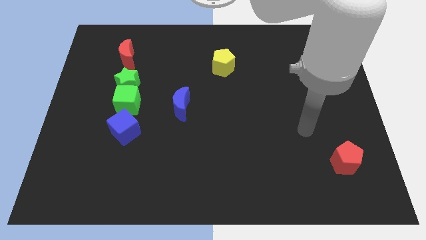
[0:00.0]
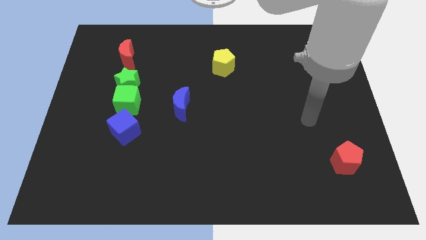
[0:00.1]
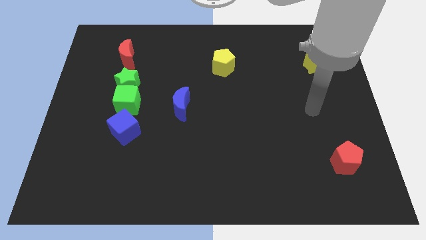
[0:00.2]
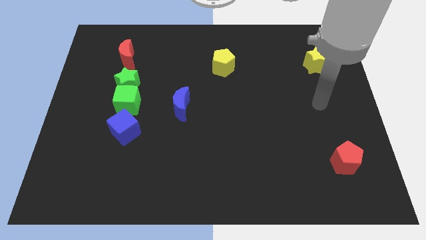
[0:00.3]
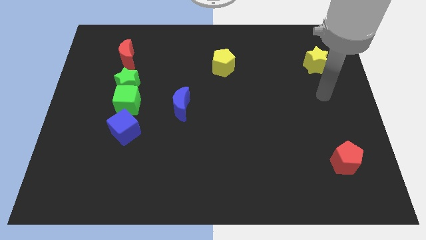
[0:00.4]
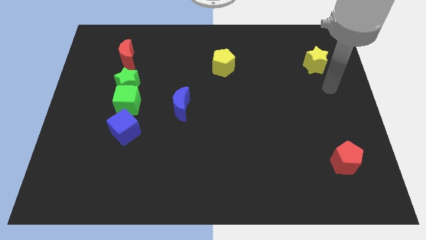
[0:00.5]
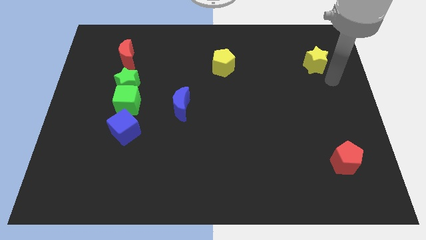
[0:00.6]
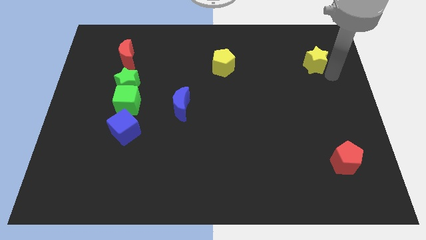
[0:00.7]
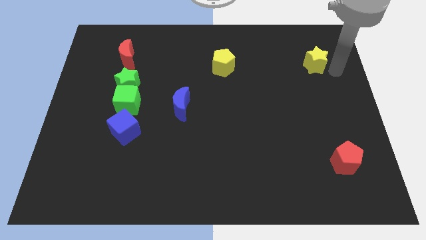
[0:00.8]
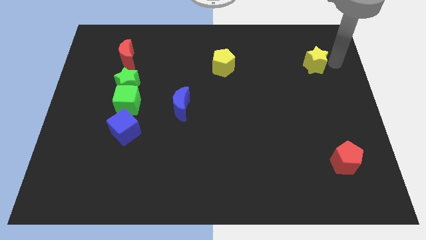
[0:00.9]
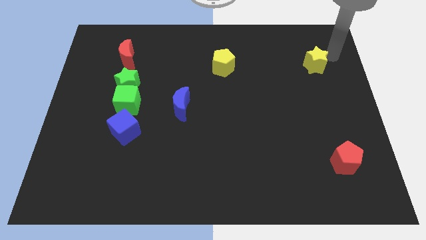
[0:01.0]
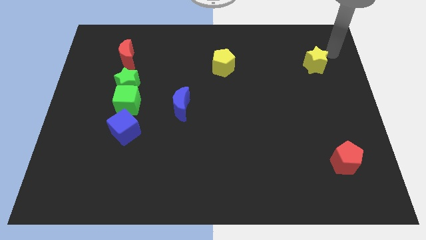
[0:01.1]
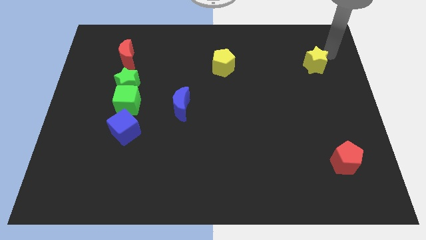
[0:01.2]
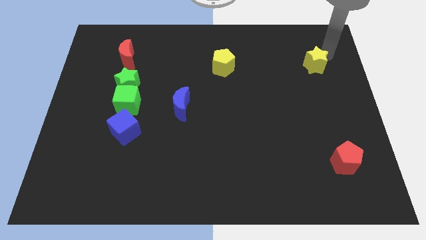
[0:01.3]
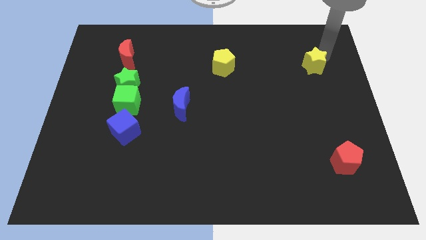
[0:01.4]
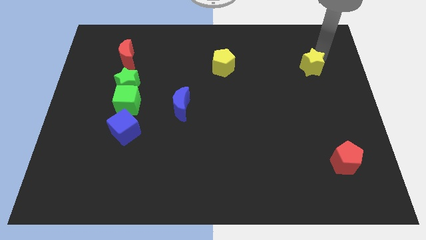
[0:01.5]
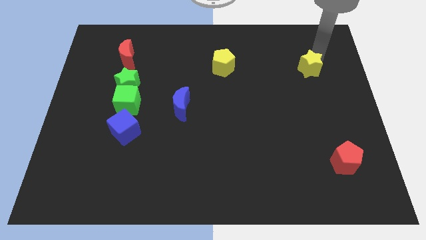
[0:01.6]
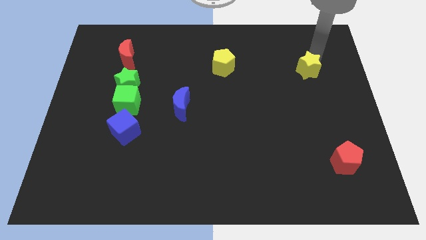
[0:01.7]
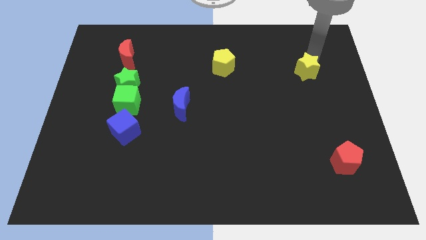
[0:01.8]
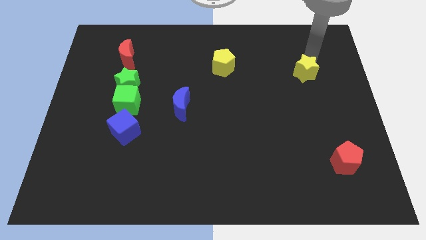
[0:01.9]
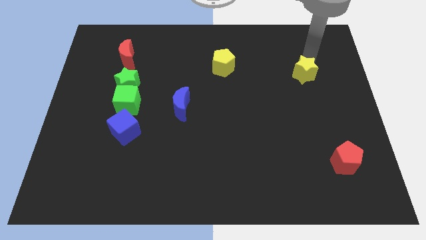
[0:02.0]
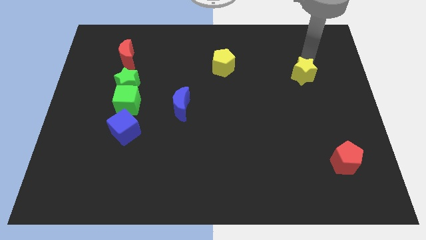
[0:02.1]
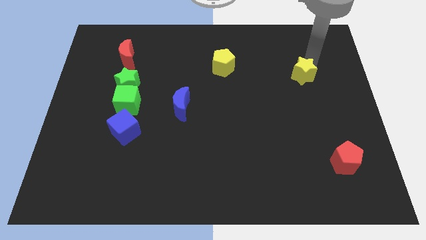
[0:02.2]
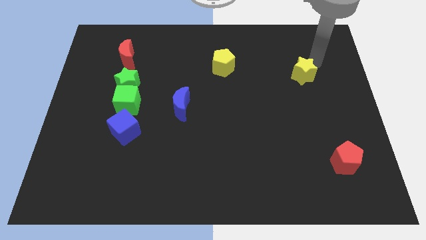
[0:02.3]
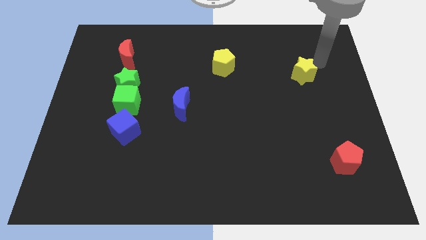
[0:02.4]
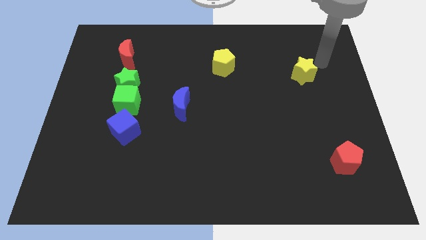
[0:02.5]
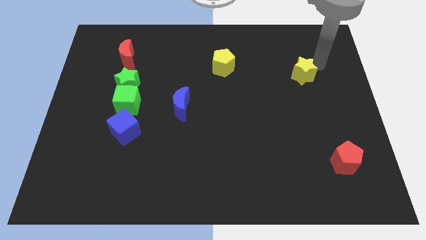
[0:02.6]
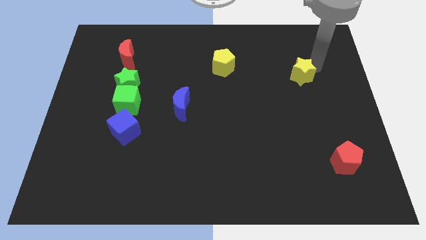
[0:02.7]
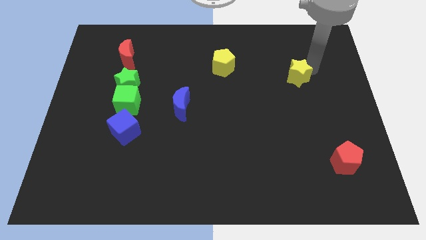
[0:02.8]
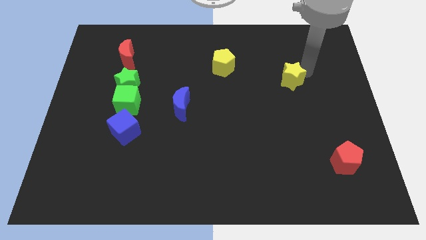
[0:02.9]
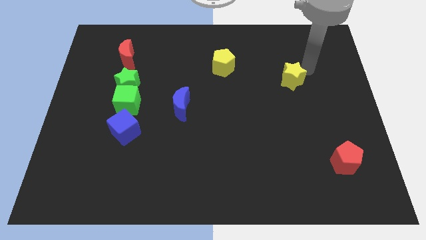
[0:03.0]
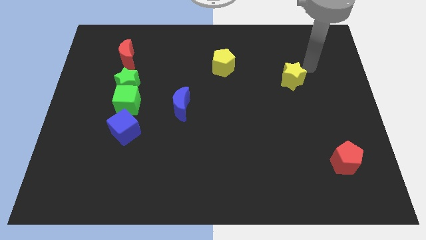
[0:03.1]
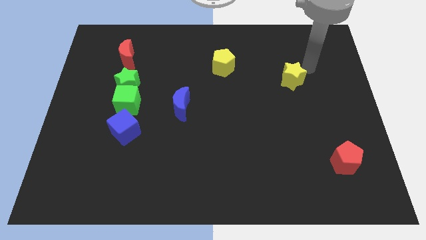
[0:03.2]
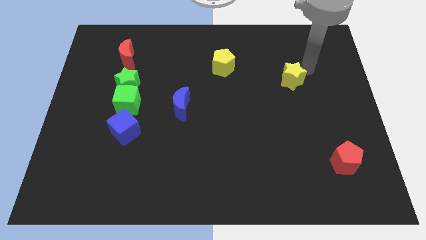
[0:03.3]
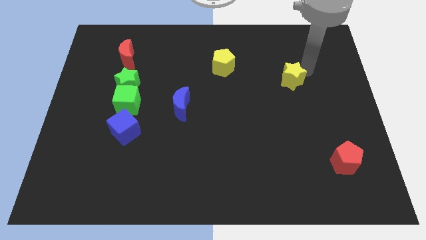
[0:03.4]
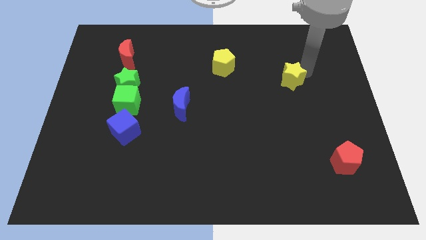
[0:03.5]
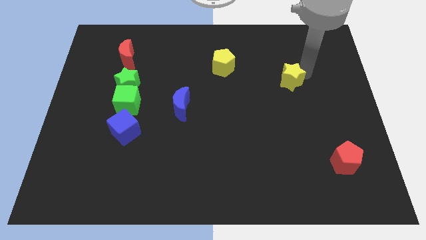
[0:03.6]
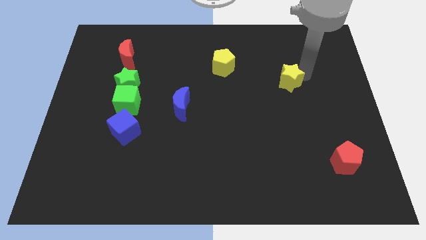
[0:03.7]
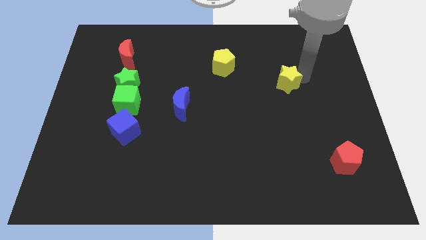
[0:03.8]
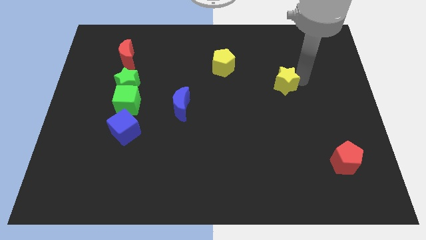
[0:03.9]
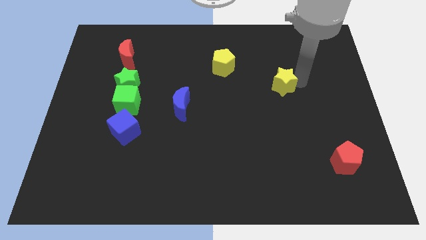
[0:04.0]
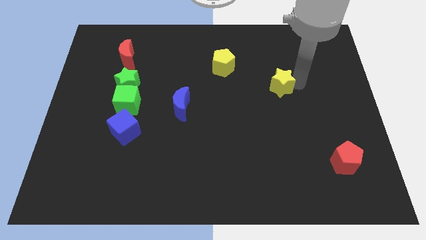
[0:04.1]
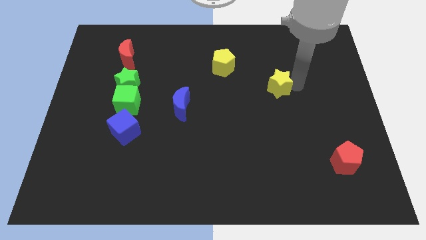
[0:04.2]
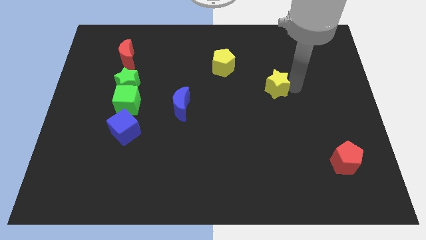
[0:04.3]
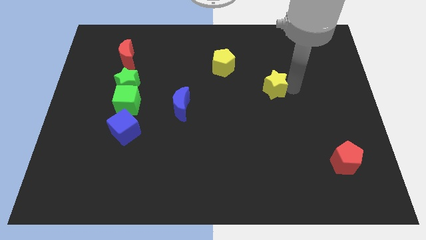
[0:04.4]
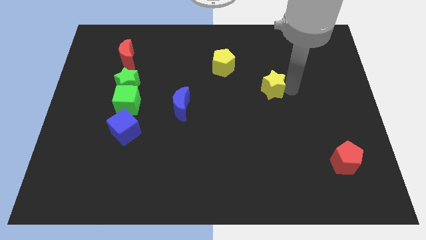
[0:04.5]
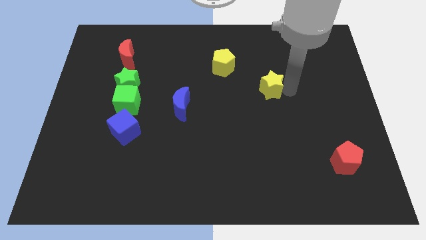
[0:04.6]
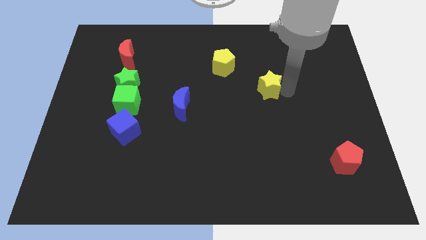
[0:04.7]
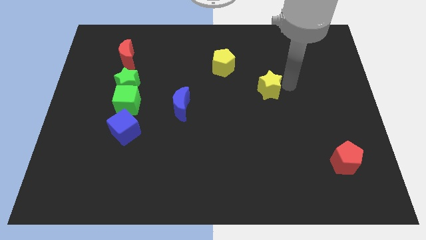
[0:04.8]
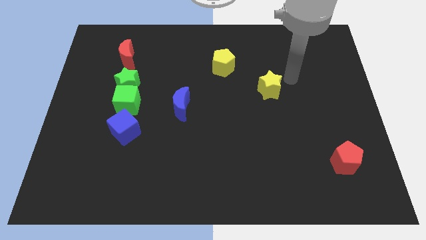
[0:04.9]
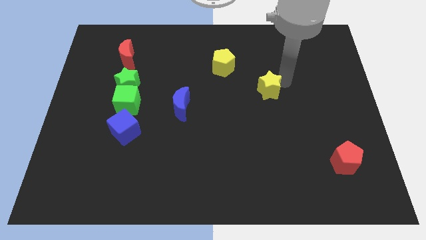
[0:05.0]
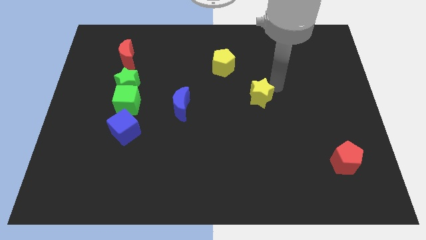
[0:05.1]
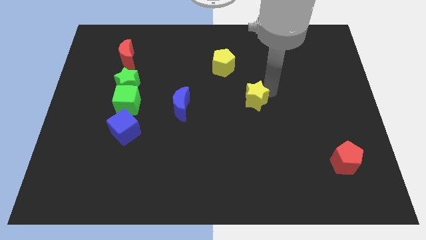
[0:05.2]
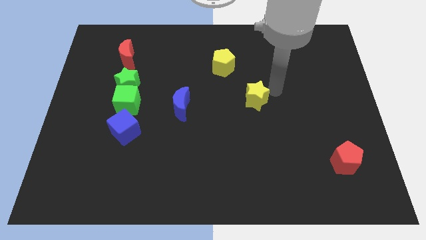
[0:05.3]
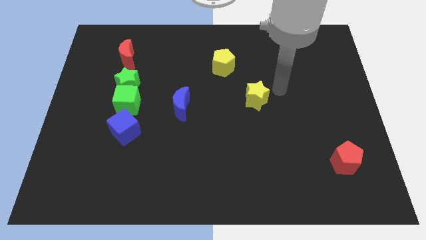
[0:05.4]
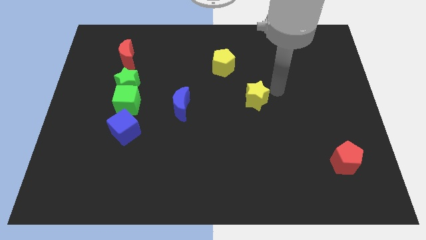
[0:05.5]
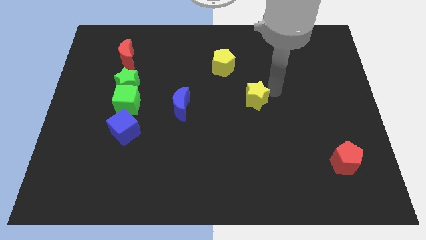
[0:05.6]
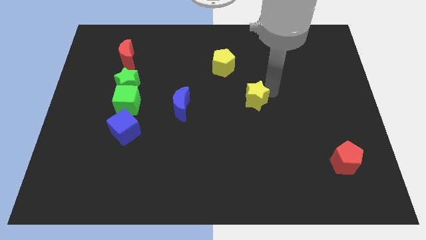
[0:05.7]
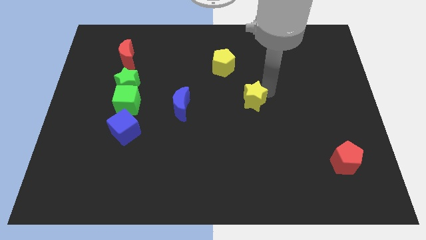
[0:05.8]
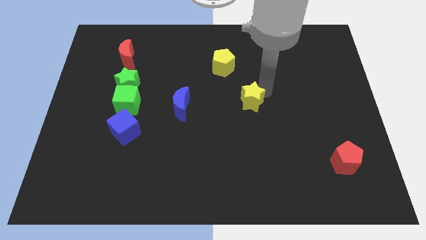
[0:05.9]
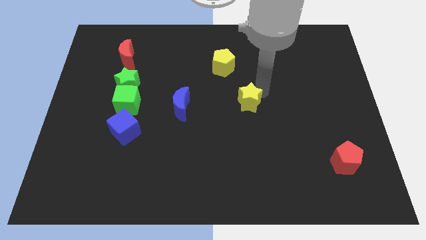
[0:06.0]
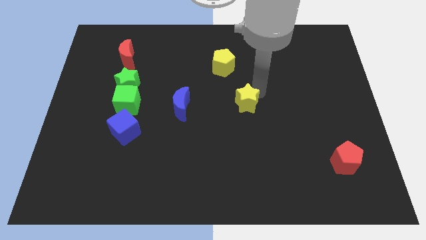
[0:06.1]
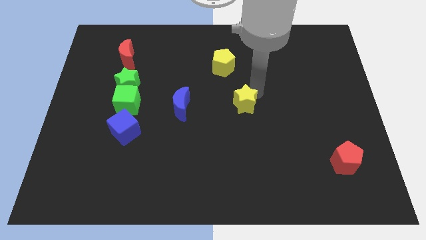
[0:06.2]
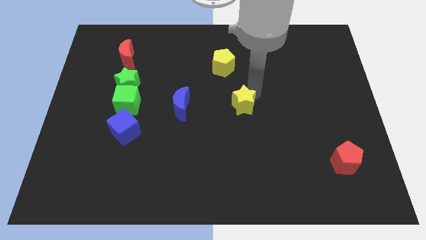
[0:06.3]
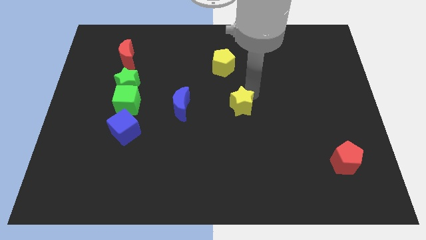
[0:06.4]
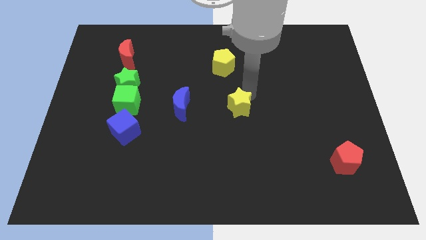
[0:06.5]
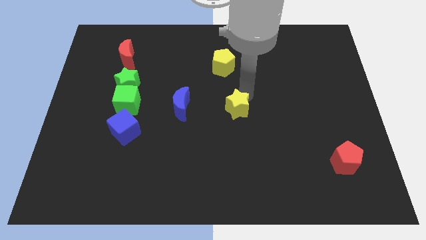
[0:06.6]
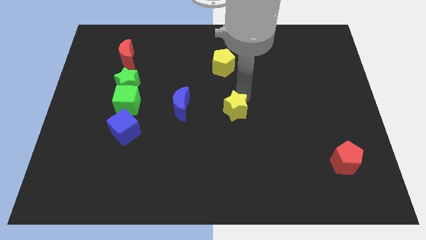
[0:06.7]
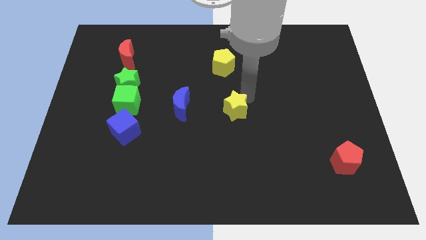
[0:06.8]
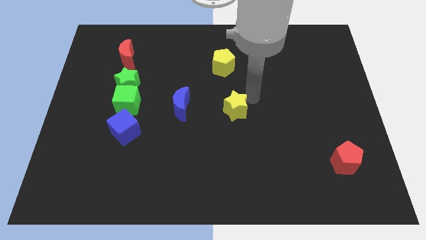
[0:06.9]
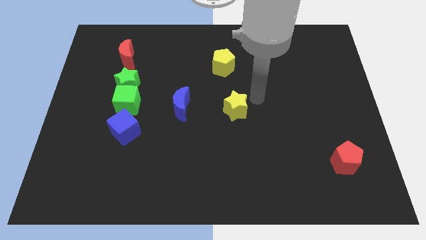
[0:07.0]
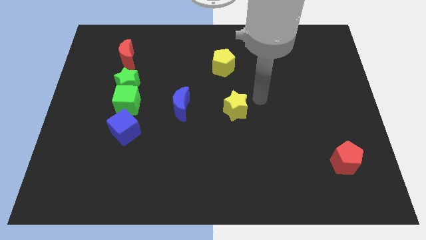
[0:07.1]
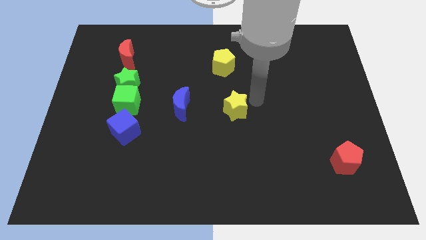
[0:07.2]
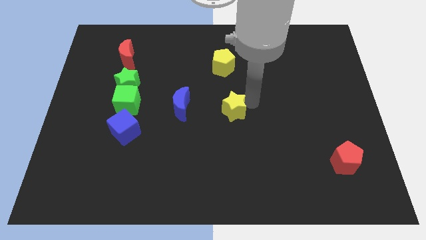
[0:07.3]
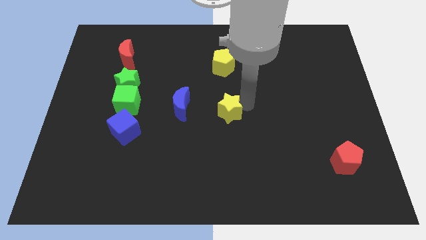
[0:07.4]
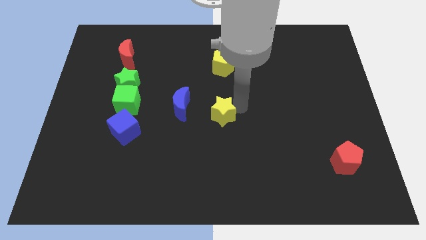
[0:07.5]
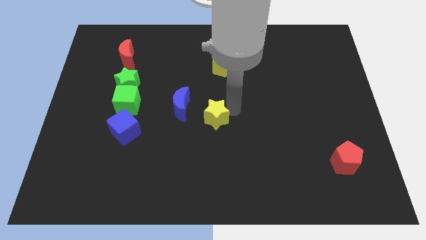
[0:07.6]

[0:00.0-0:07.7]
push the yellow star diagonally down and to the right of the blue moon
